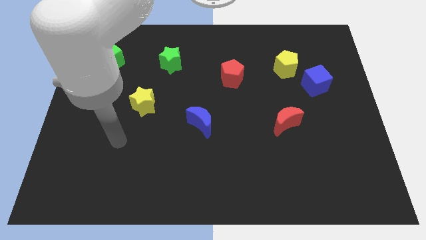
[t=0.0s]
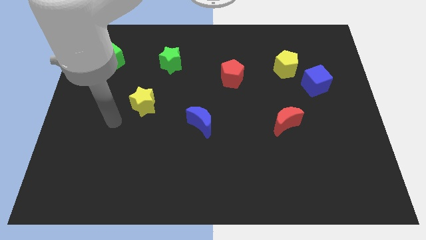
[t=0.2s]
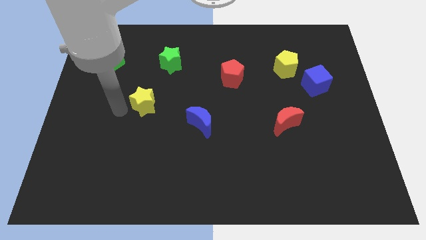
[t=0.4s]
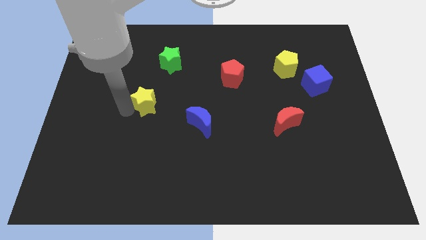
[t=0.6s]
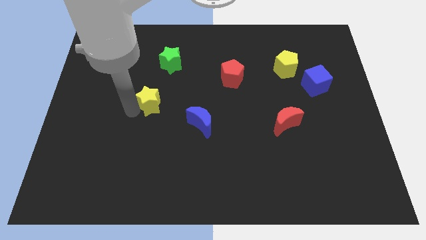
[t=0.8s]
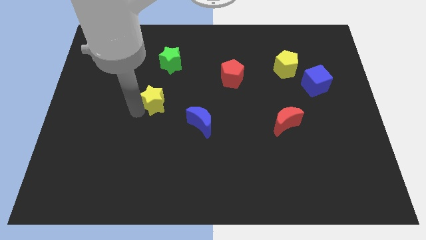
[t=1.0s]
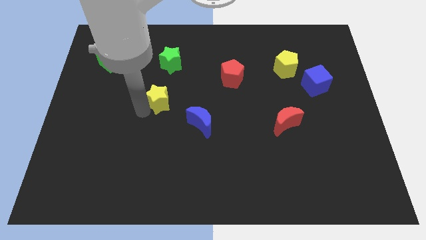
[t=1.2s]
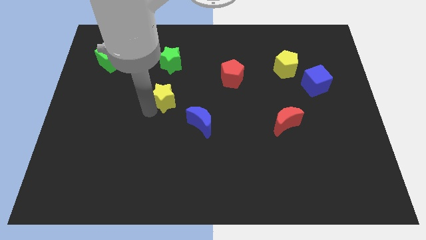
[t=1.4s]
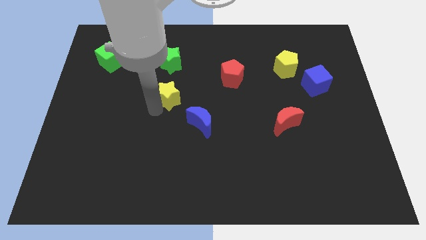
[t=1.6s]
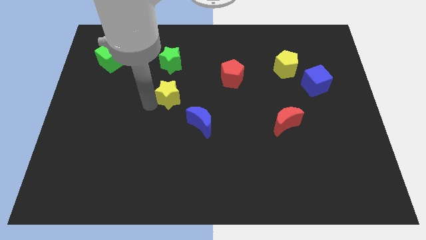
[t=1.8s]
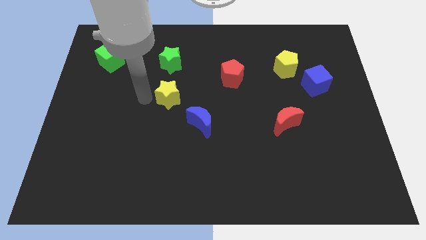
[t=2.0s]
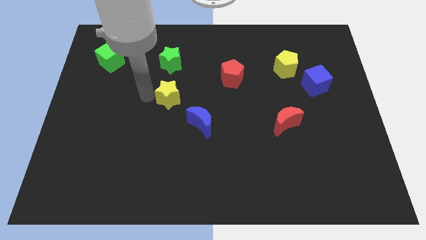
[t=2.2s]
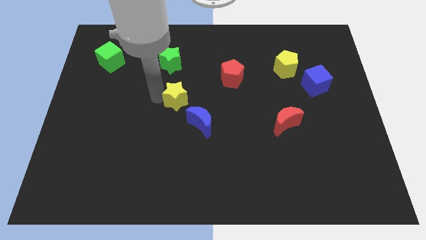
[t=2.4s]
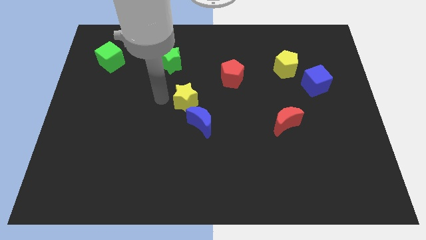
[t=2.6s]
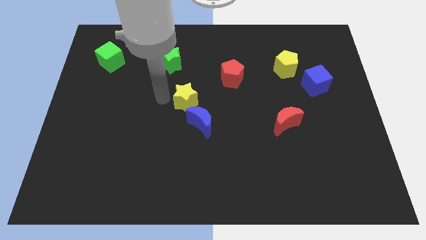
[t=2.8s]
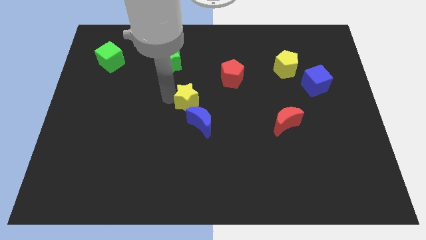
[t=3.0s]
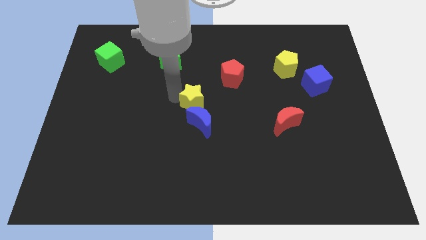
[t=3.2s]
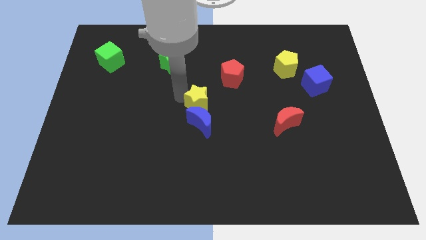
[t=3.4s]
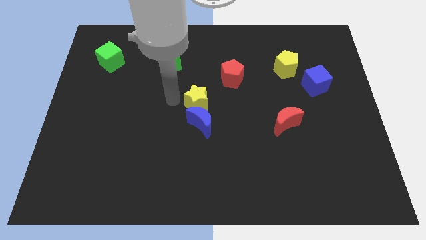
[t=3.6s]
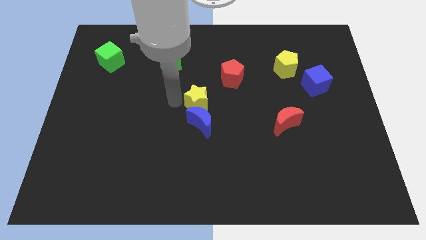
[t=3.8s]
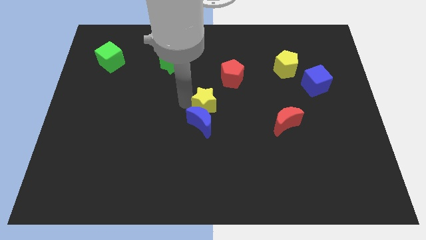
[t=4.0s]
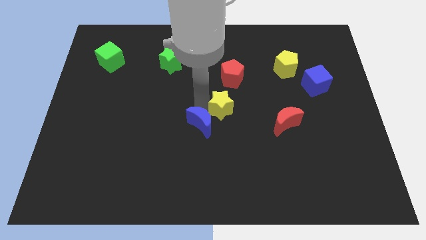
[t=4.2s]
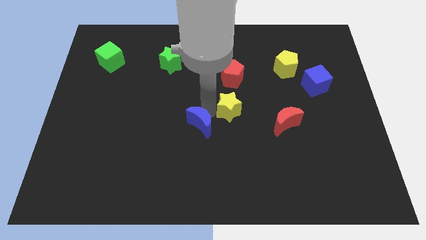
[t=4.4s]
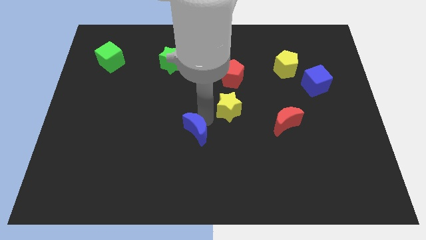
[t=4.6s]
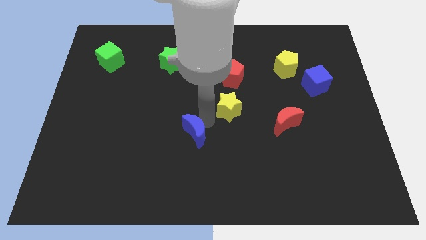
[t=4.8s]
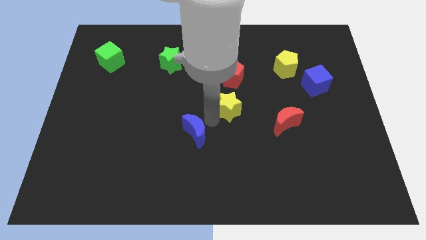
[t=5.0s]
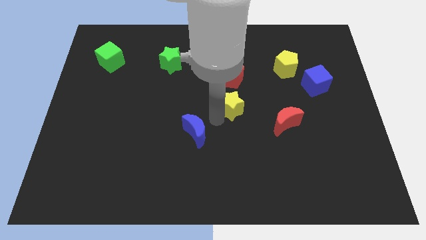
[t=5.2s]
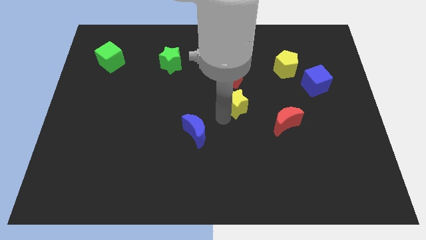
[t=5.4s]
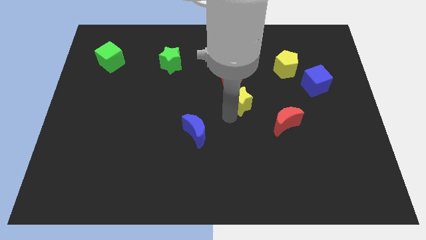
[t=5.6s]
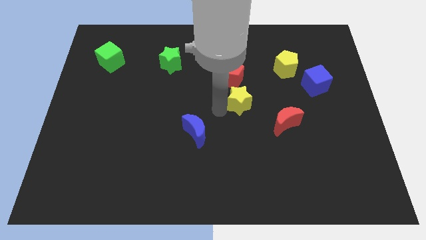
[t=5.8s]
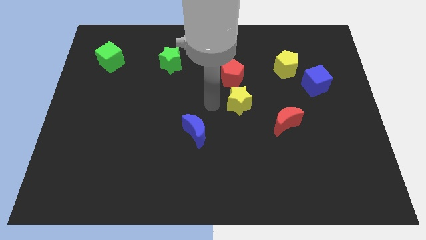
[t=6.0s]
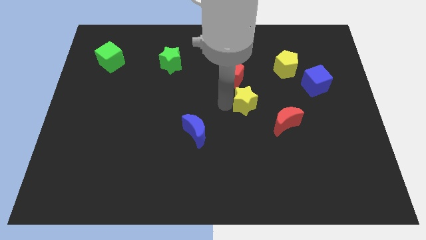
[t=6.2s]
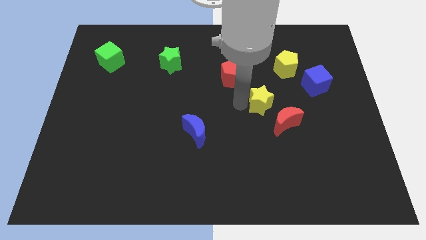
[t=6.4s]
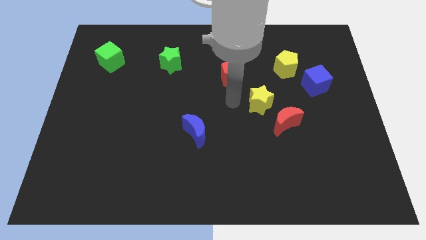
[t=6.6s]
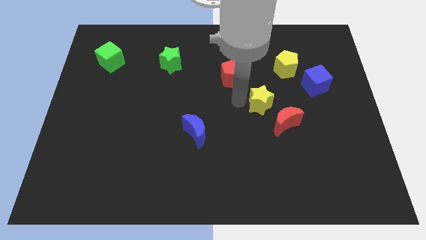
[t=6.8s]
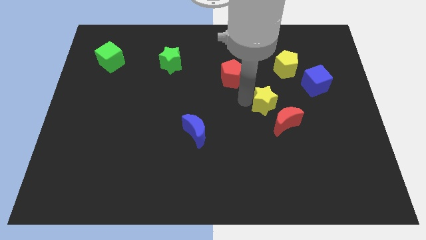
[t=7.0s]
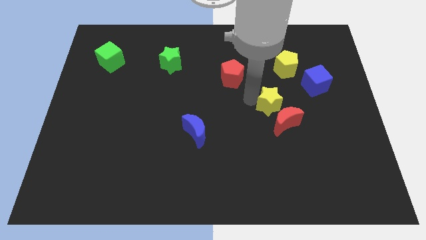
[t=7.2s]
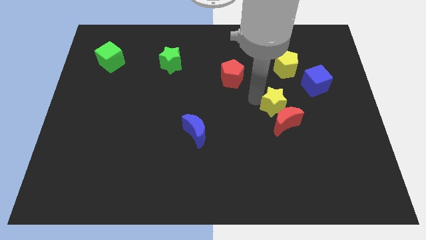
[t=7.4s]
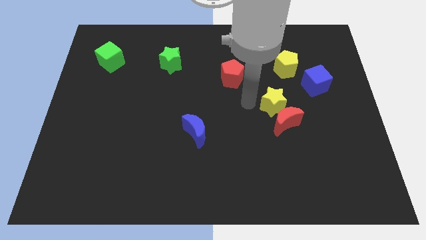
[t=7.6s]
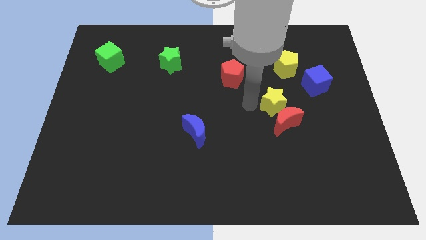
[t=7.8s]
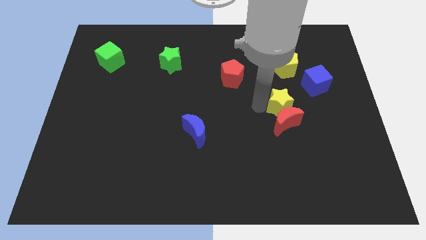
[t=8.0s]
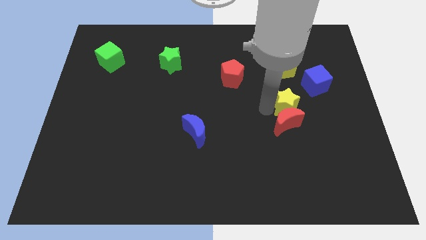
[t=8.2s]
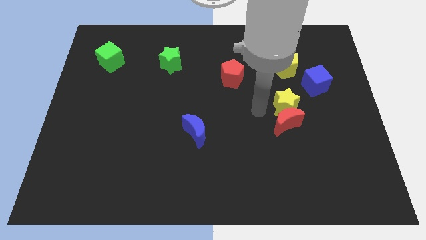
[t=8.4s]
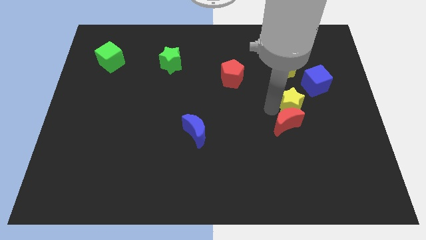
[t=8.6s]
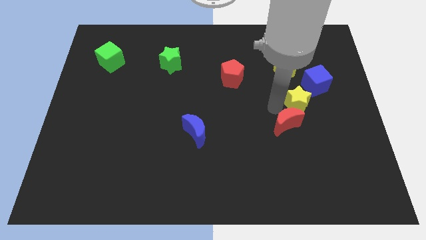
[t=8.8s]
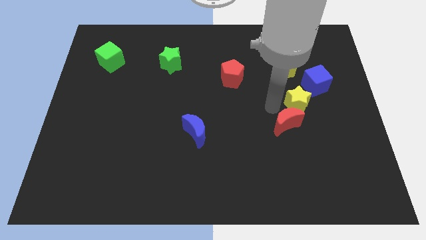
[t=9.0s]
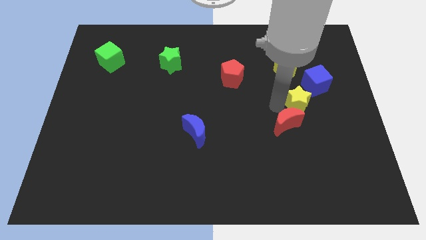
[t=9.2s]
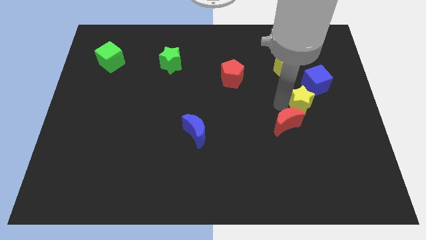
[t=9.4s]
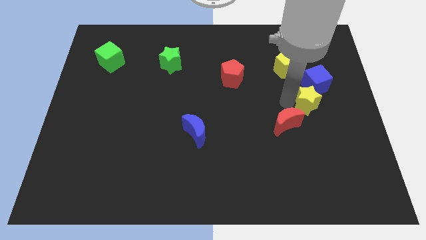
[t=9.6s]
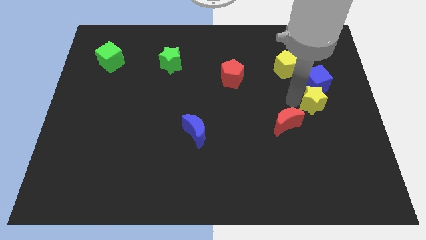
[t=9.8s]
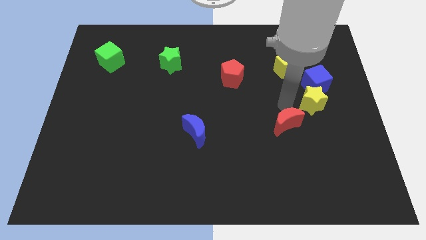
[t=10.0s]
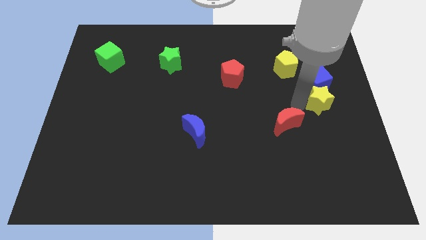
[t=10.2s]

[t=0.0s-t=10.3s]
push the yellow star to the right side of the board

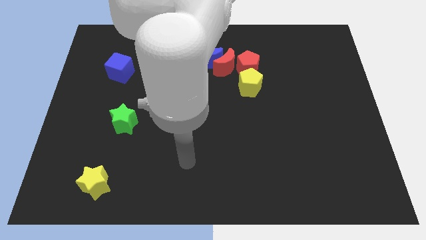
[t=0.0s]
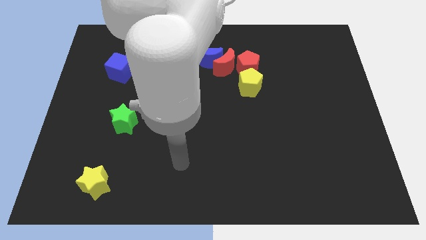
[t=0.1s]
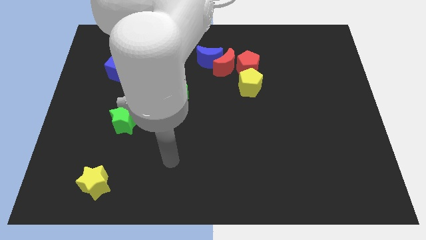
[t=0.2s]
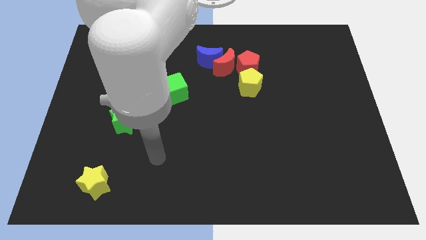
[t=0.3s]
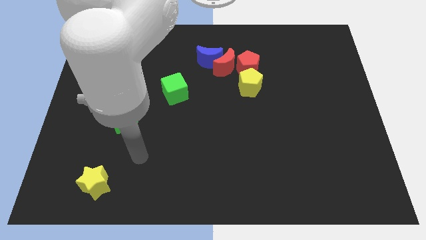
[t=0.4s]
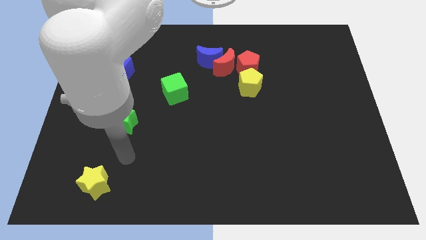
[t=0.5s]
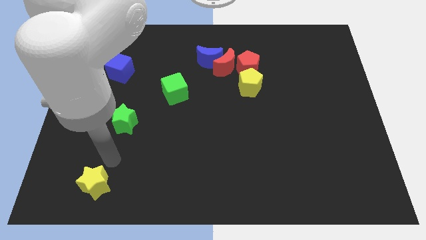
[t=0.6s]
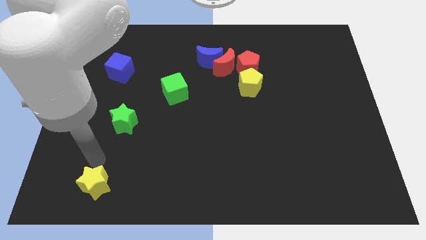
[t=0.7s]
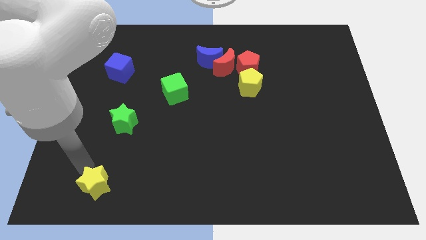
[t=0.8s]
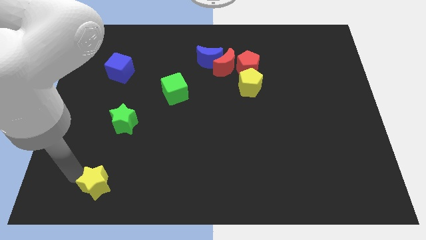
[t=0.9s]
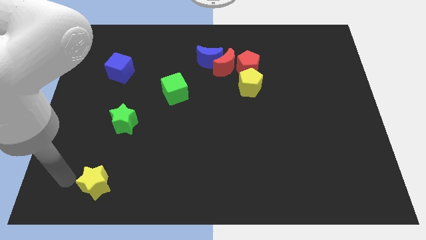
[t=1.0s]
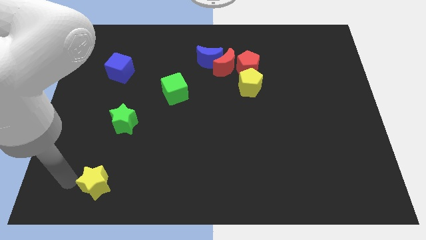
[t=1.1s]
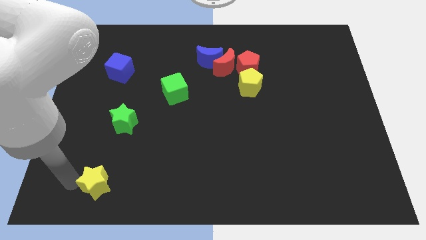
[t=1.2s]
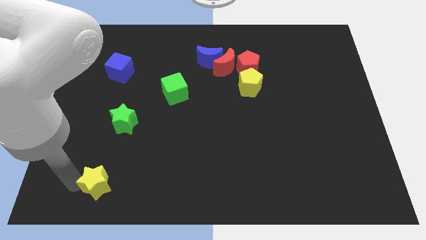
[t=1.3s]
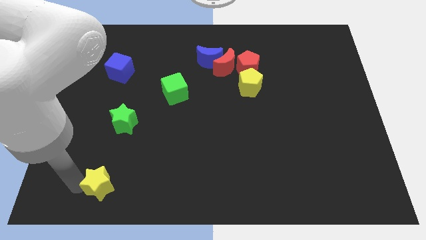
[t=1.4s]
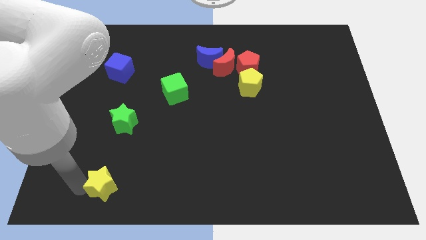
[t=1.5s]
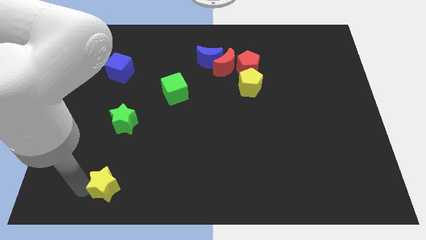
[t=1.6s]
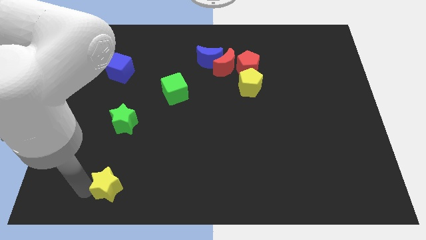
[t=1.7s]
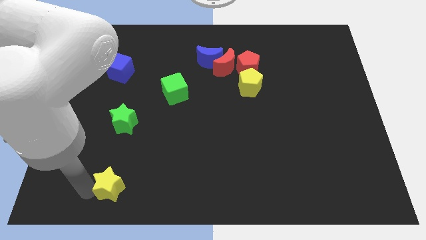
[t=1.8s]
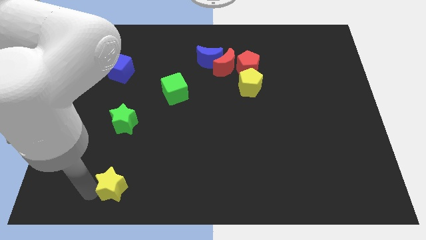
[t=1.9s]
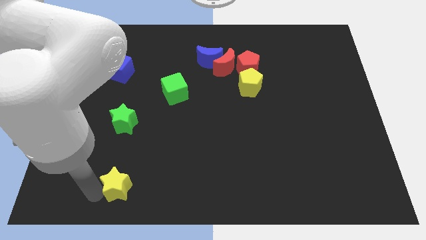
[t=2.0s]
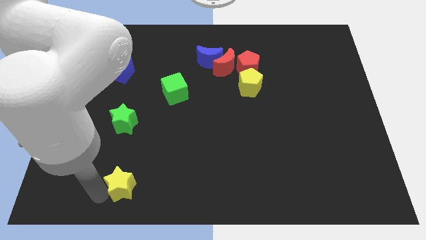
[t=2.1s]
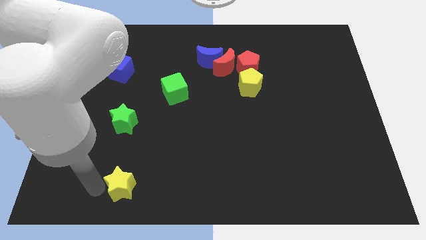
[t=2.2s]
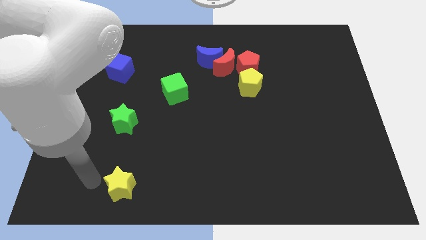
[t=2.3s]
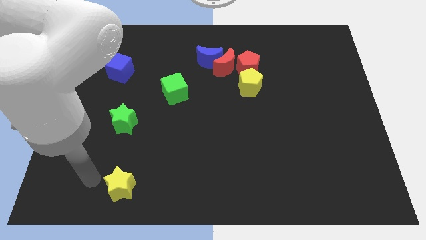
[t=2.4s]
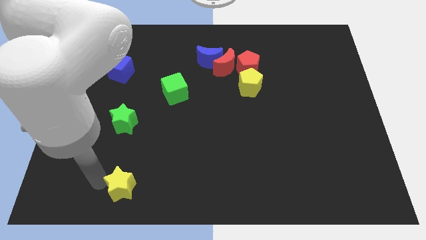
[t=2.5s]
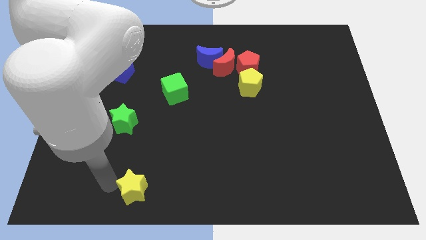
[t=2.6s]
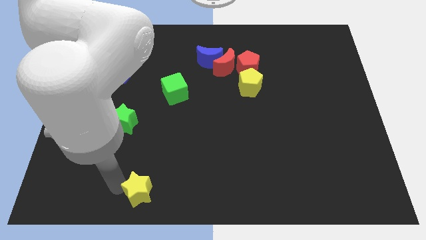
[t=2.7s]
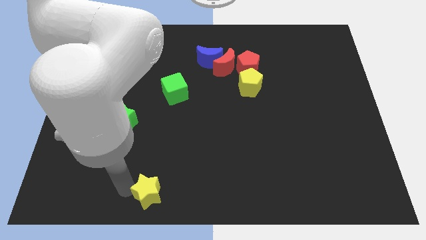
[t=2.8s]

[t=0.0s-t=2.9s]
push the yellow star to the bottom

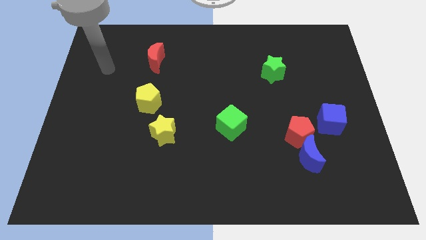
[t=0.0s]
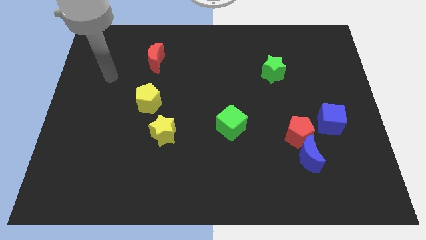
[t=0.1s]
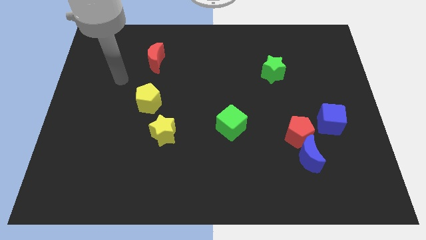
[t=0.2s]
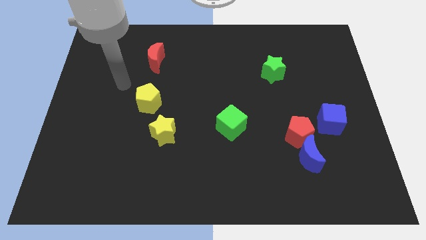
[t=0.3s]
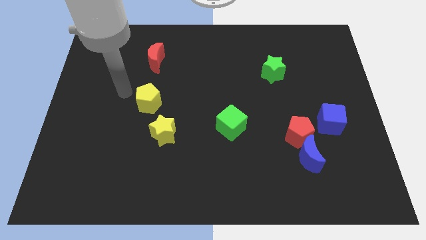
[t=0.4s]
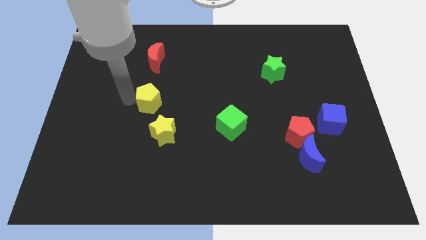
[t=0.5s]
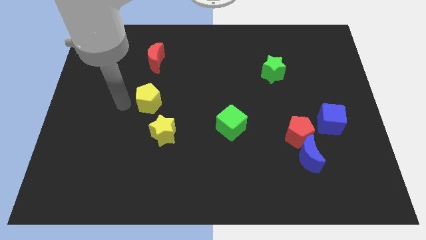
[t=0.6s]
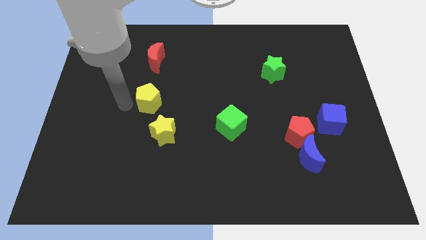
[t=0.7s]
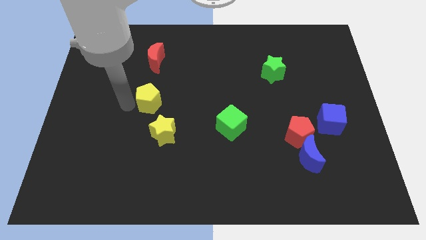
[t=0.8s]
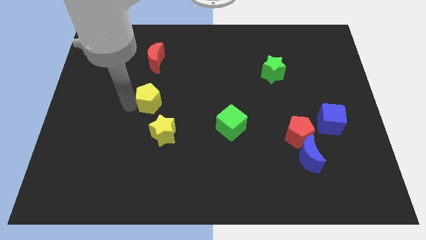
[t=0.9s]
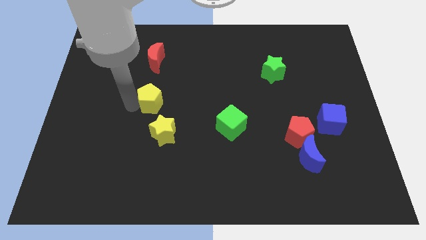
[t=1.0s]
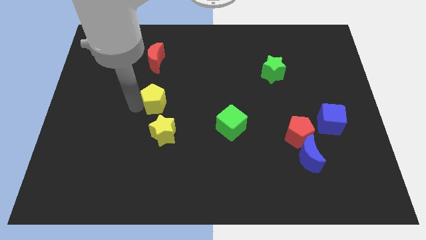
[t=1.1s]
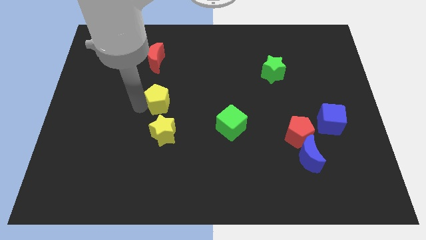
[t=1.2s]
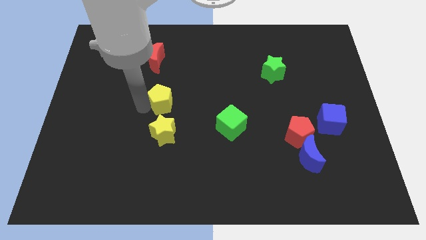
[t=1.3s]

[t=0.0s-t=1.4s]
slide the yellow pentagon to the center of the board
